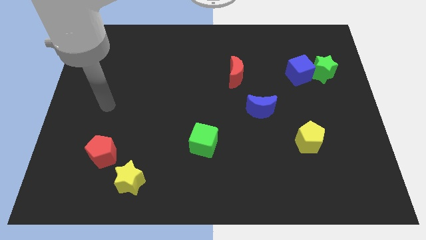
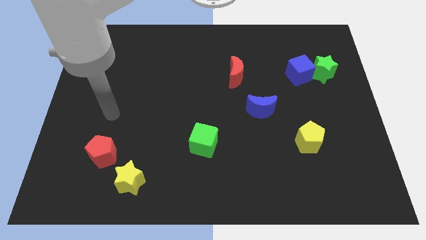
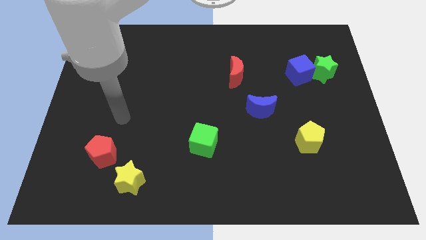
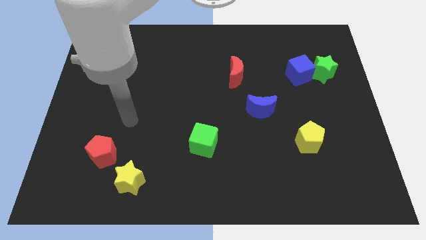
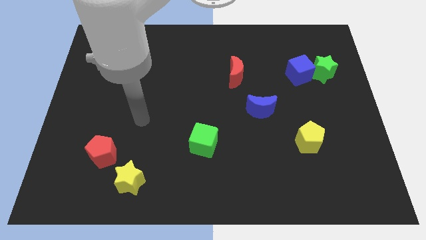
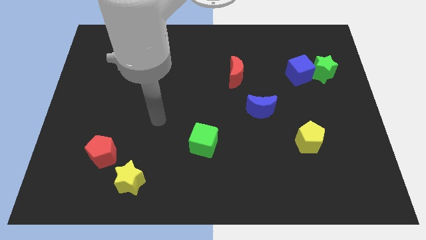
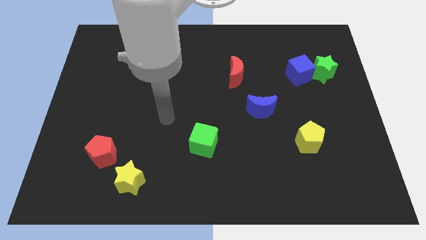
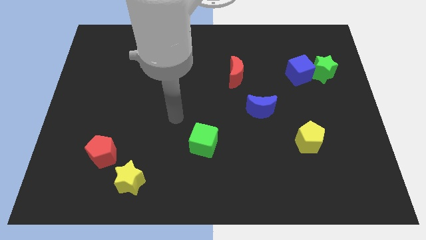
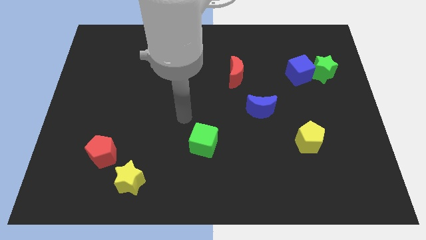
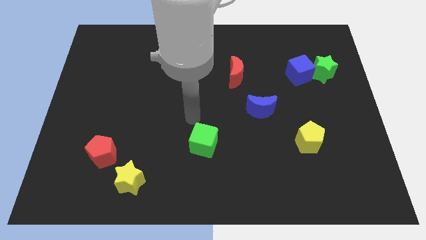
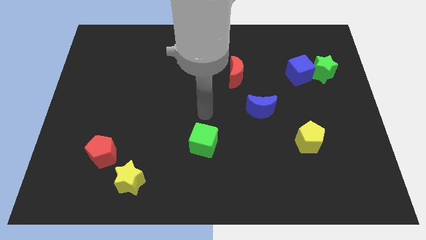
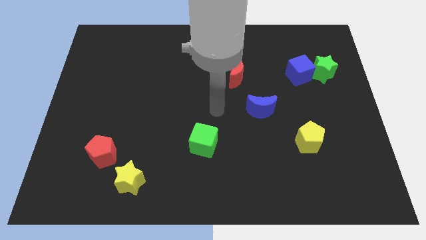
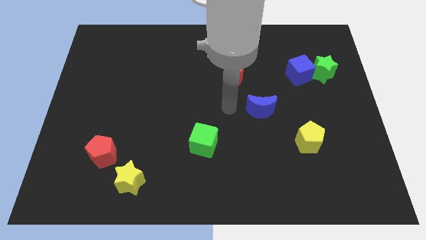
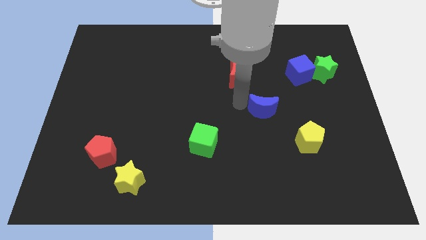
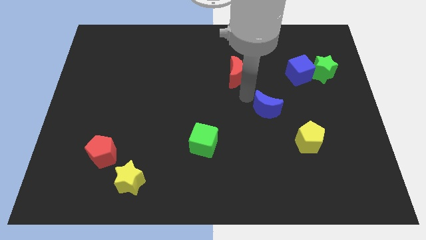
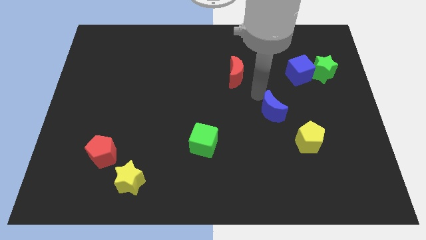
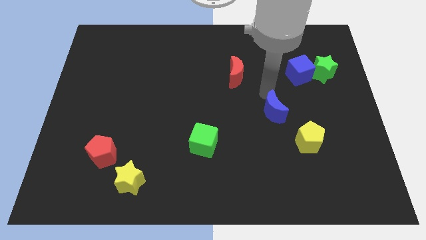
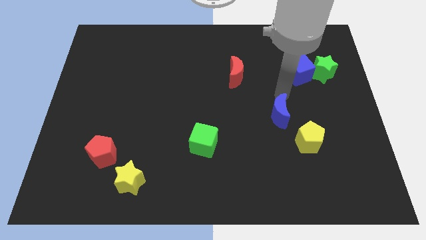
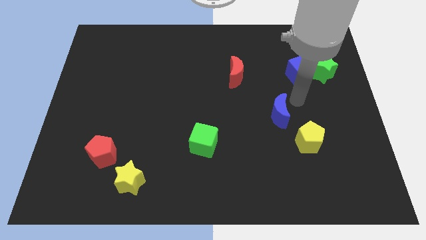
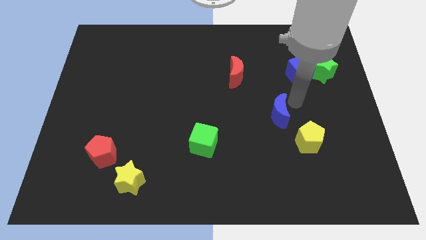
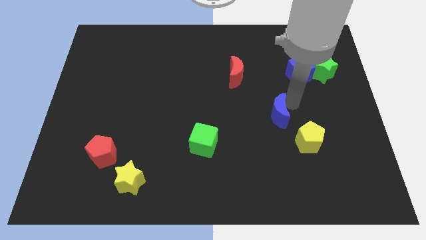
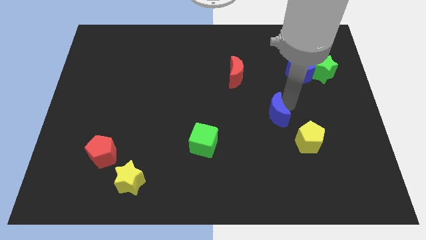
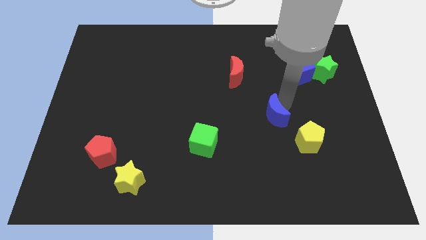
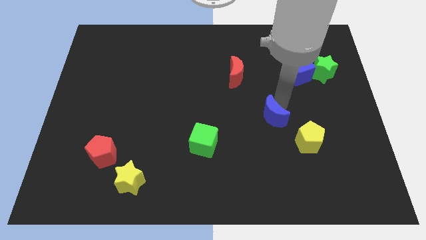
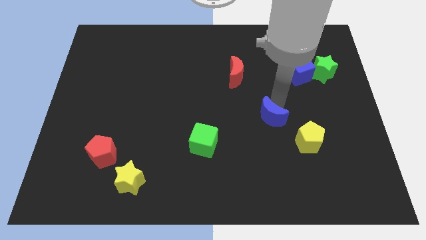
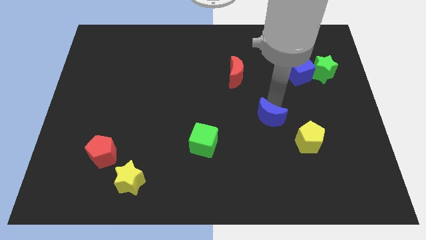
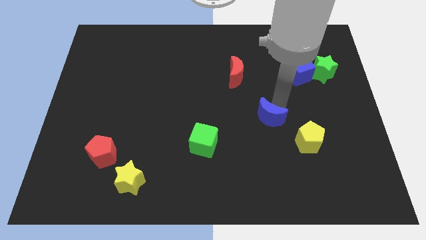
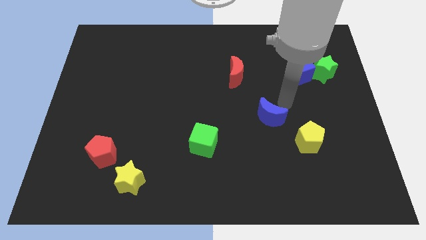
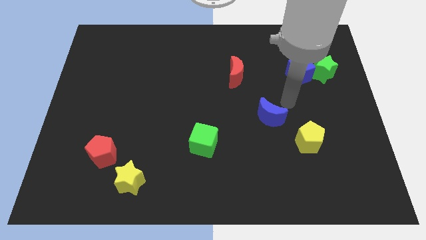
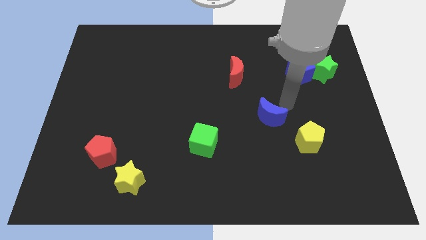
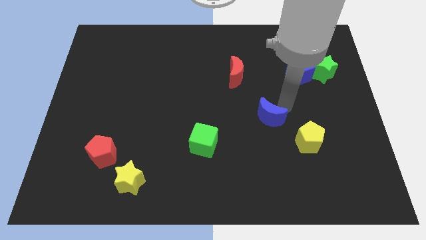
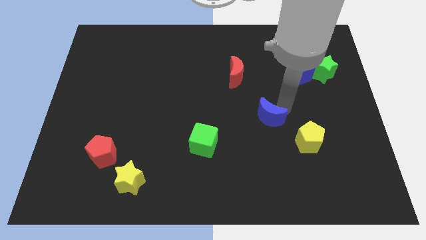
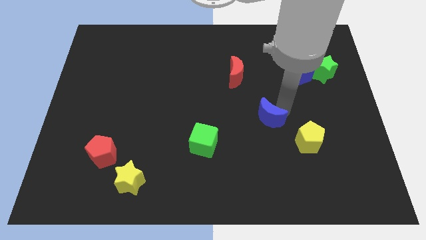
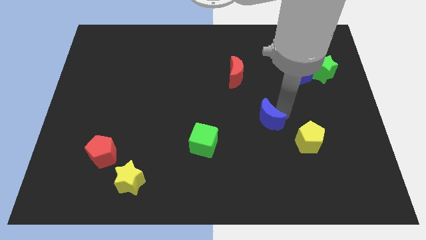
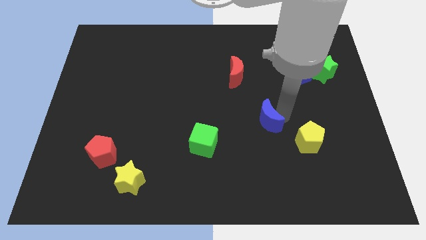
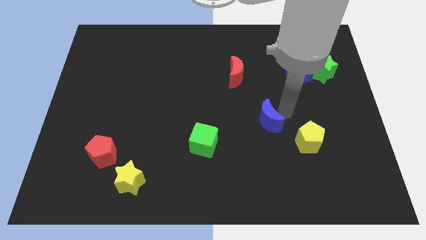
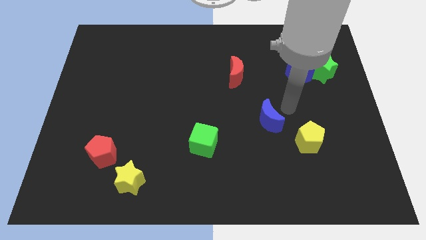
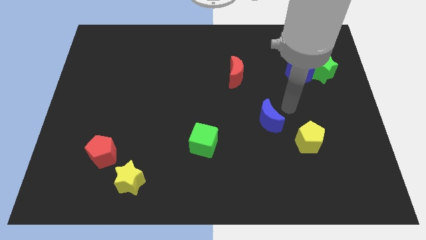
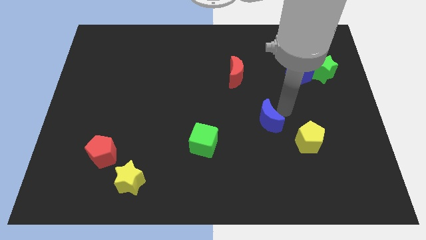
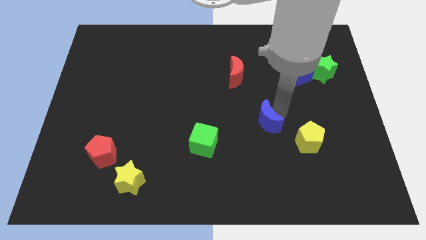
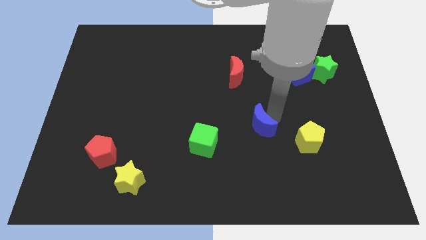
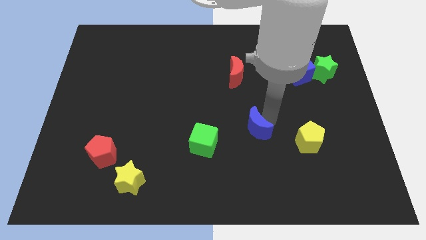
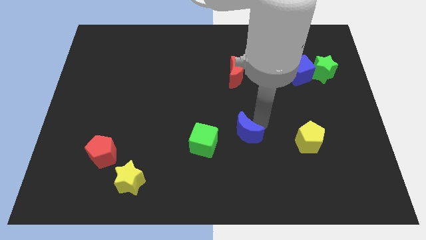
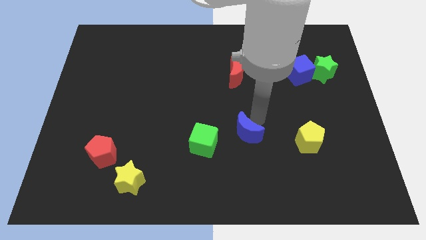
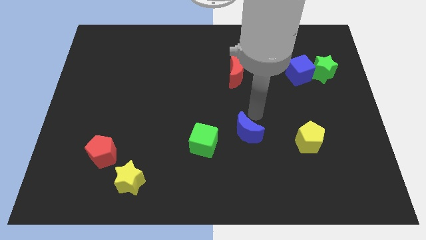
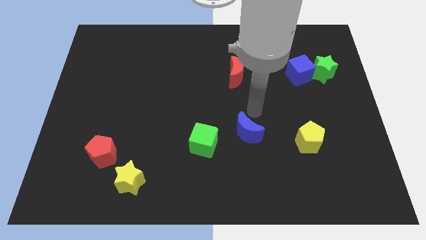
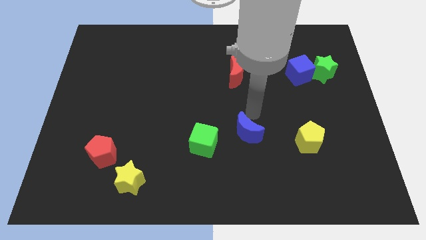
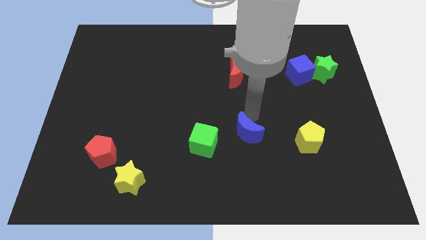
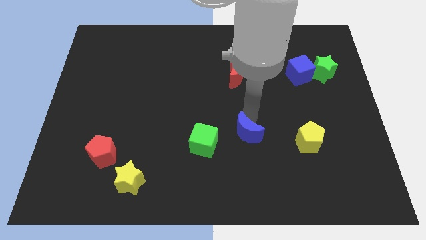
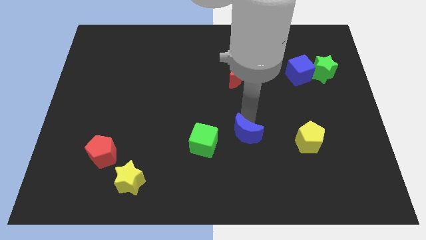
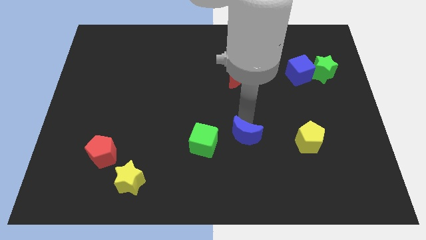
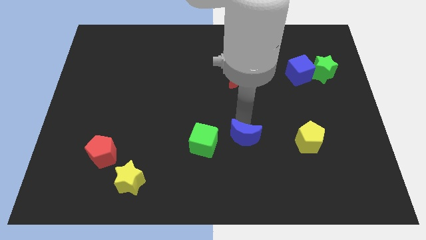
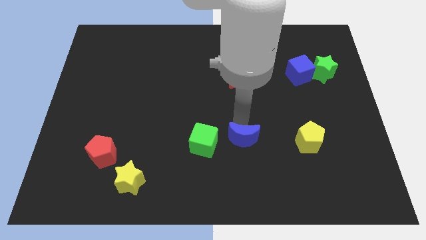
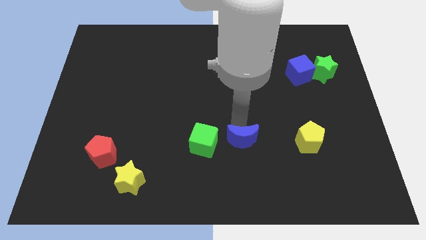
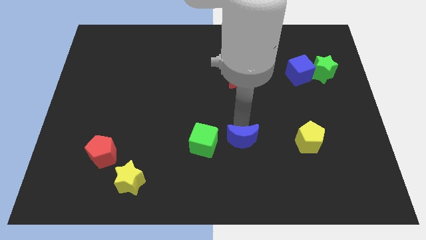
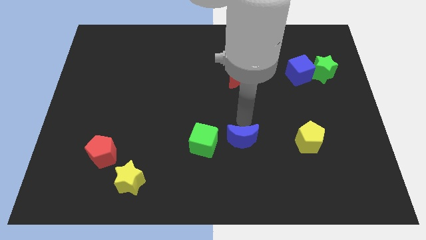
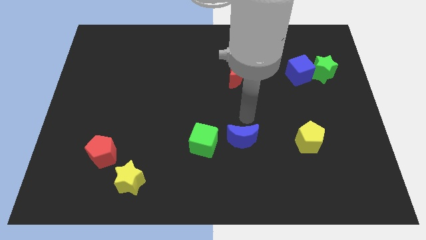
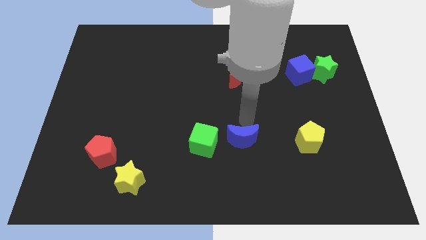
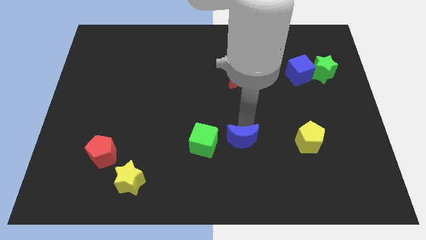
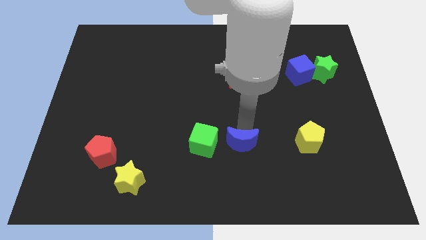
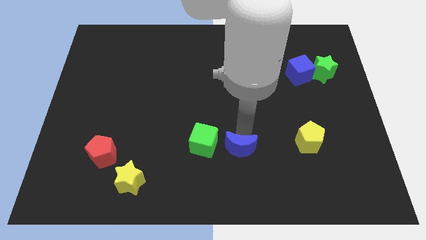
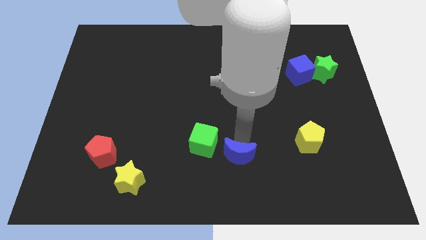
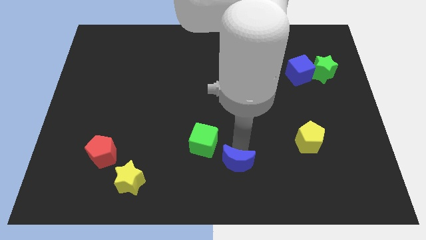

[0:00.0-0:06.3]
slide the blue moon to the bottom

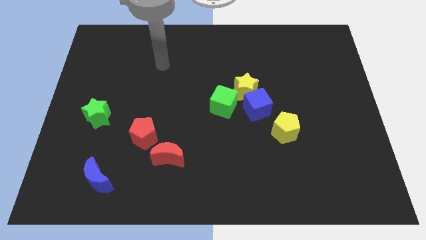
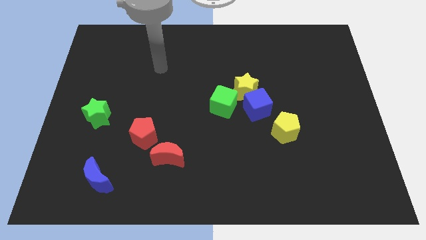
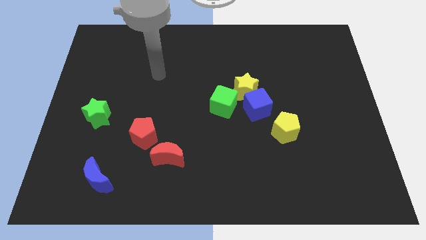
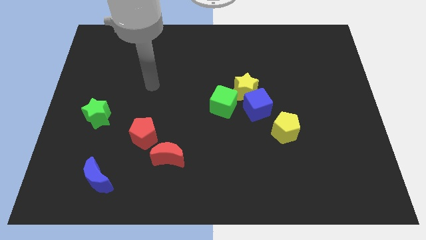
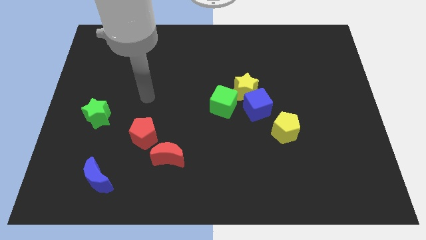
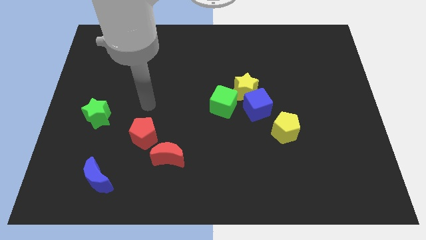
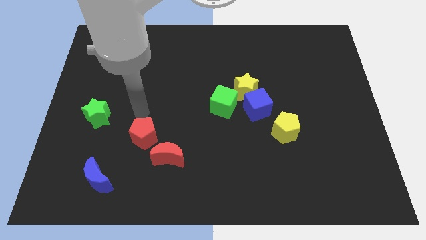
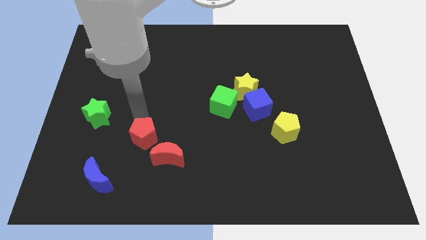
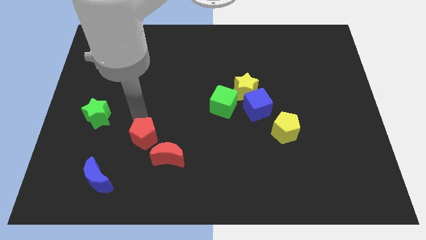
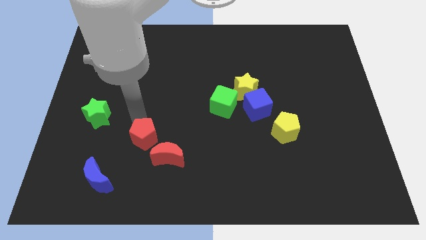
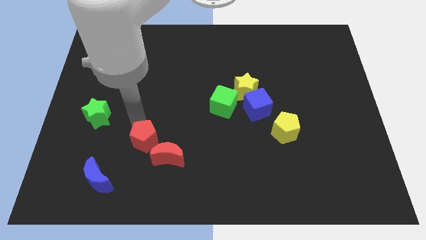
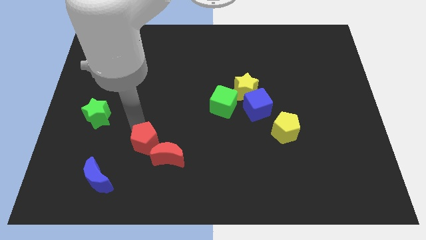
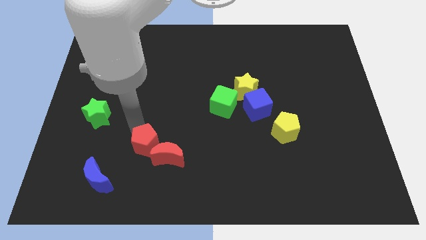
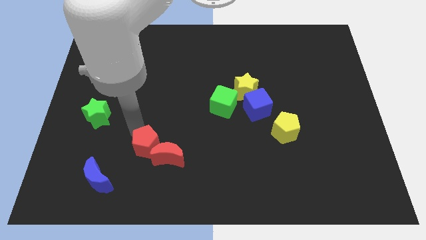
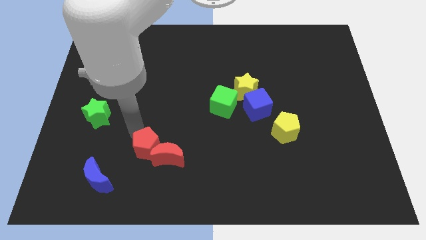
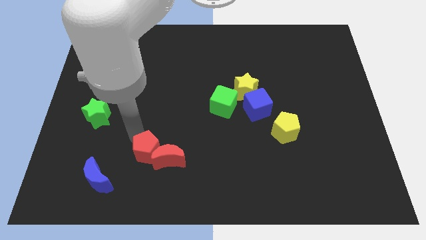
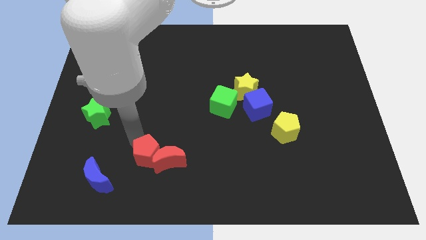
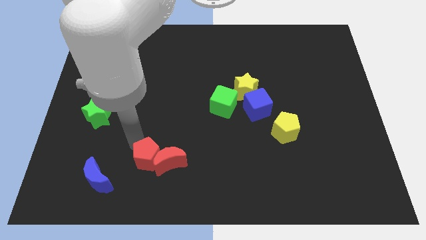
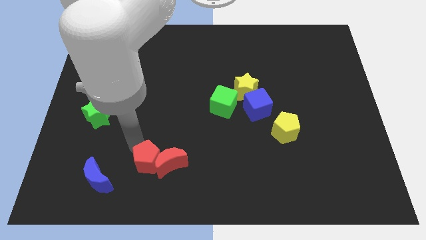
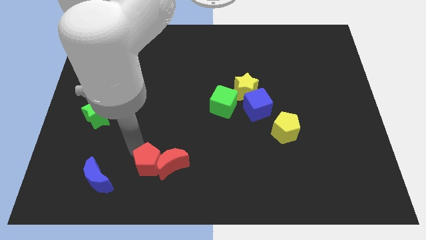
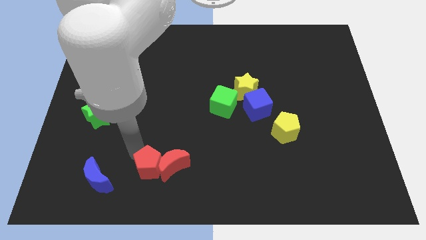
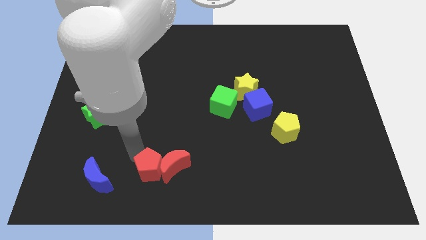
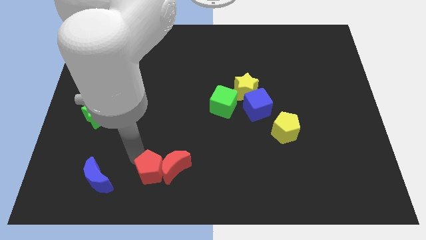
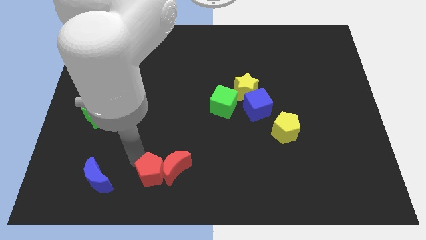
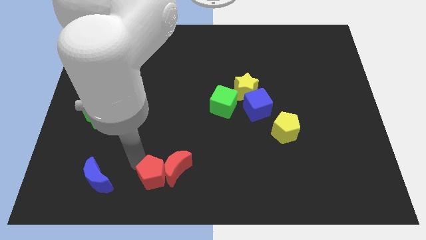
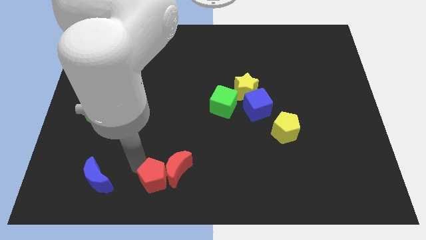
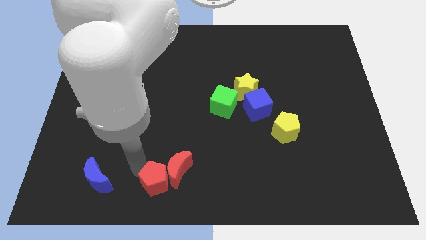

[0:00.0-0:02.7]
move the red pentagon to the bottom
